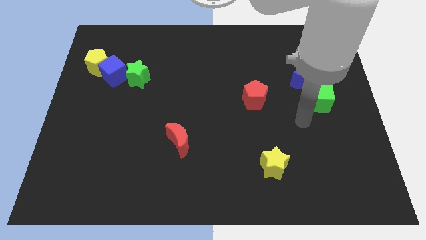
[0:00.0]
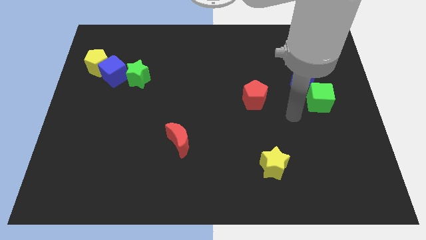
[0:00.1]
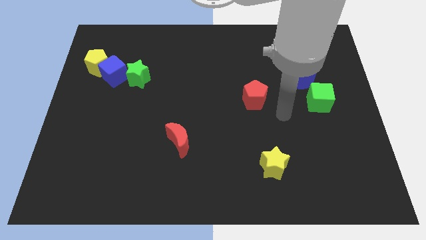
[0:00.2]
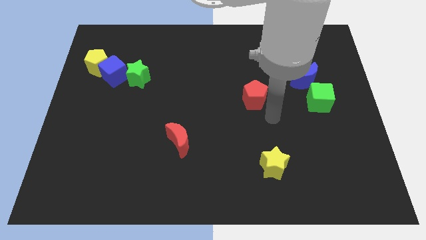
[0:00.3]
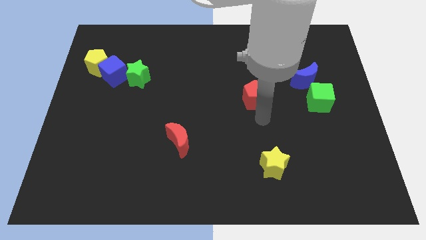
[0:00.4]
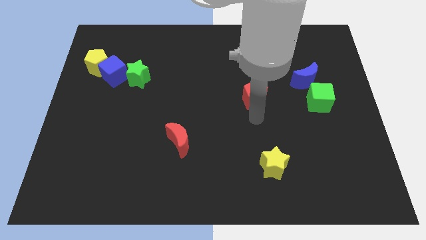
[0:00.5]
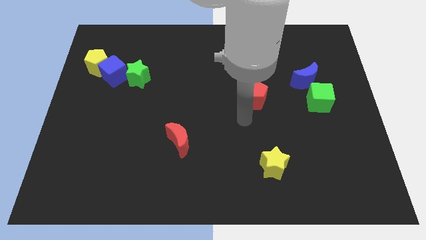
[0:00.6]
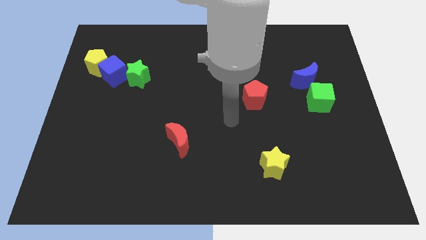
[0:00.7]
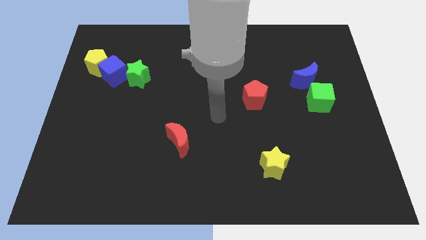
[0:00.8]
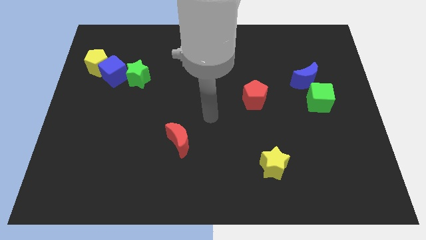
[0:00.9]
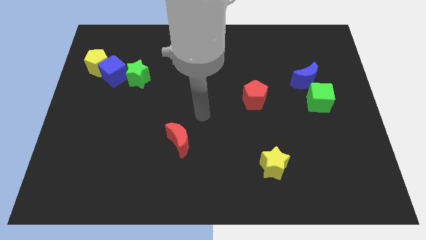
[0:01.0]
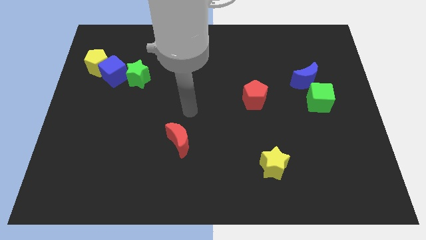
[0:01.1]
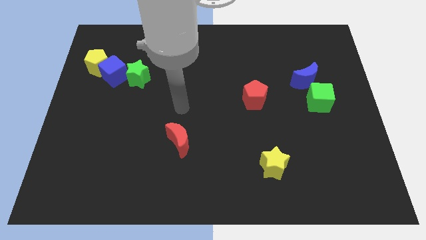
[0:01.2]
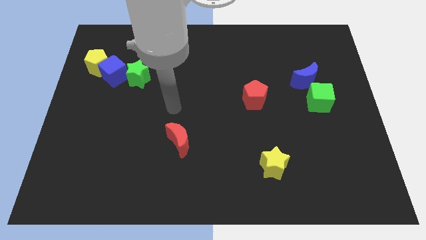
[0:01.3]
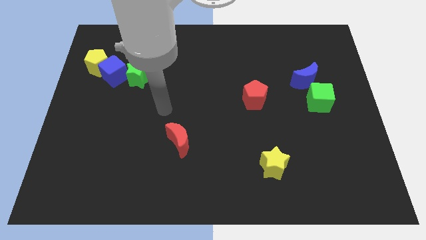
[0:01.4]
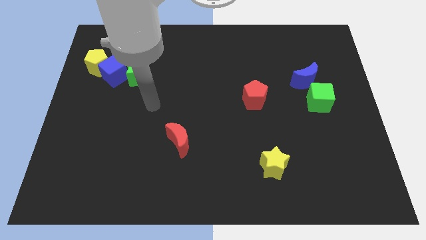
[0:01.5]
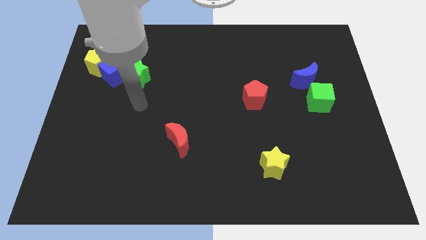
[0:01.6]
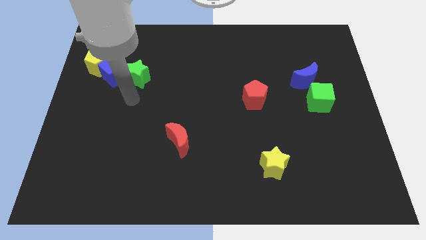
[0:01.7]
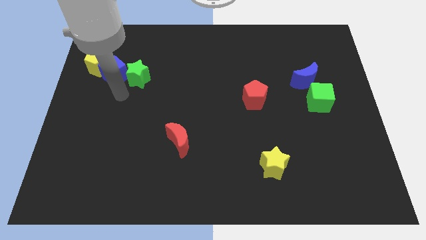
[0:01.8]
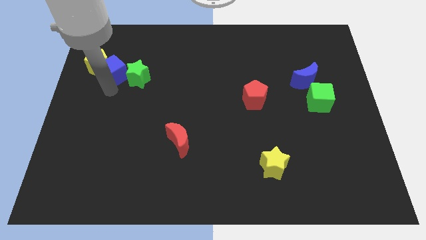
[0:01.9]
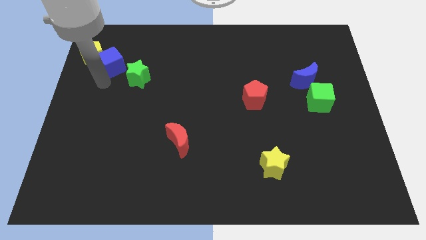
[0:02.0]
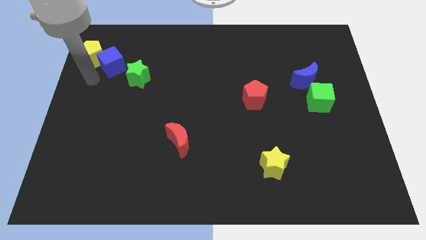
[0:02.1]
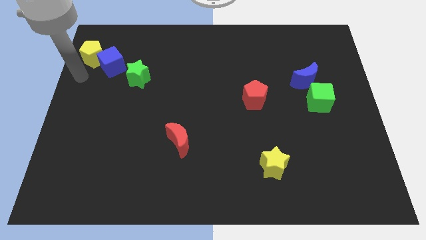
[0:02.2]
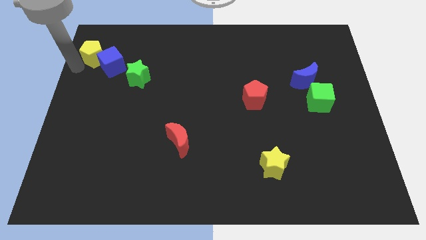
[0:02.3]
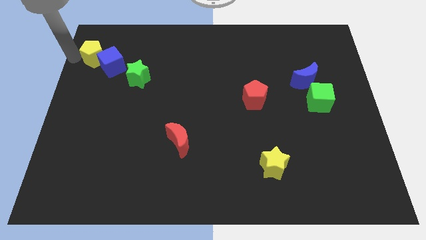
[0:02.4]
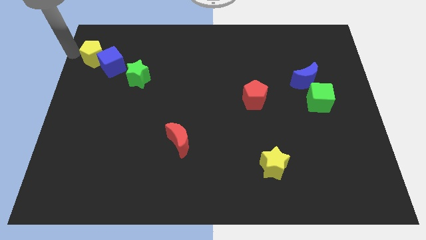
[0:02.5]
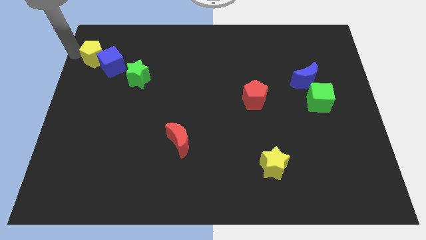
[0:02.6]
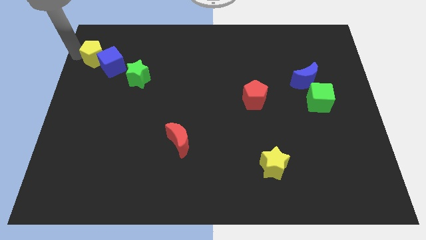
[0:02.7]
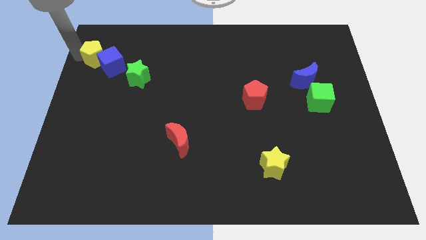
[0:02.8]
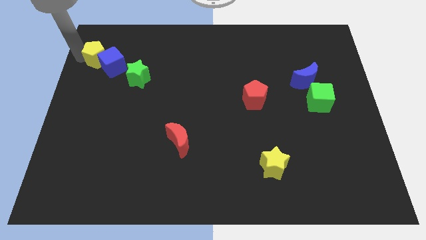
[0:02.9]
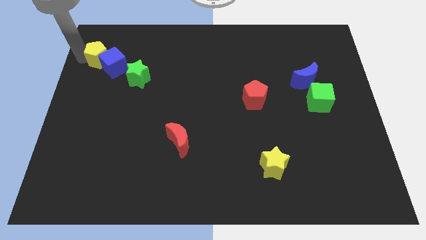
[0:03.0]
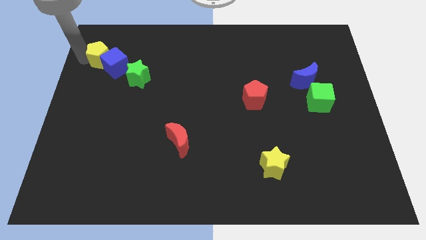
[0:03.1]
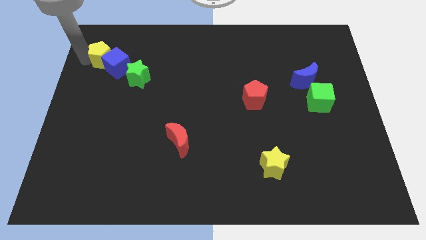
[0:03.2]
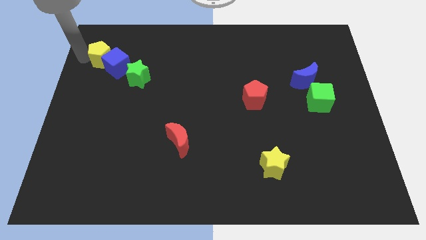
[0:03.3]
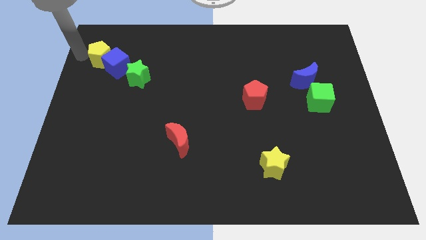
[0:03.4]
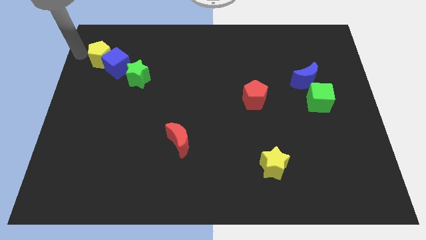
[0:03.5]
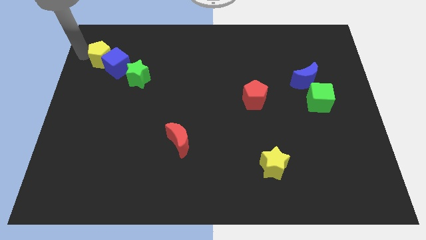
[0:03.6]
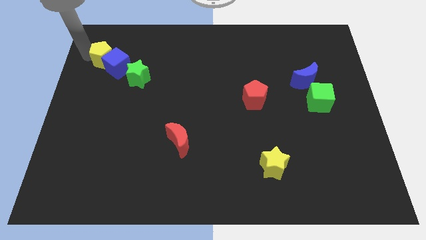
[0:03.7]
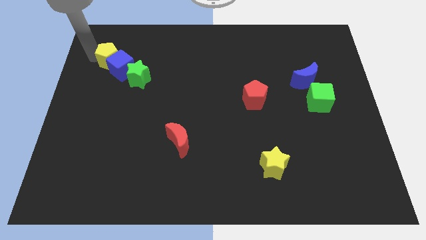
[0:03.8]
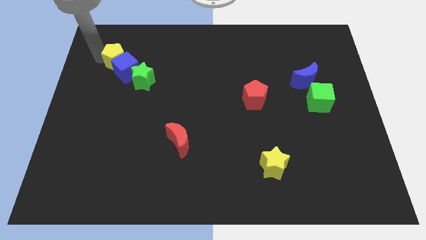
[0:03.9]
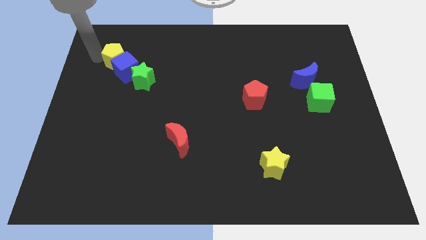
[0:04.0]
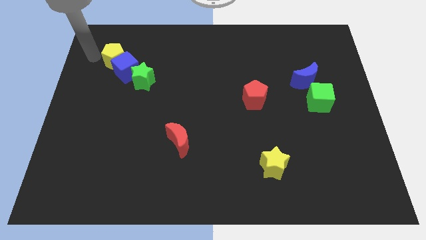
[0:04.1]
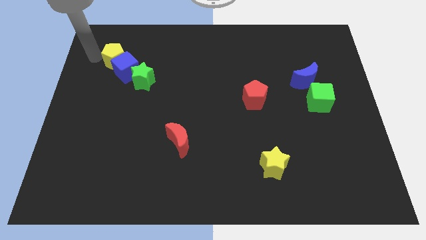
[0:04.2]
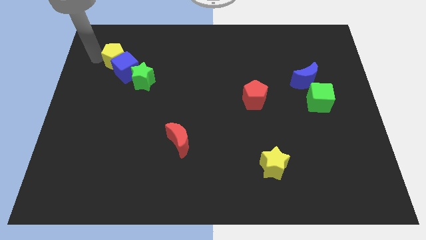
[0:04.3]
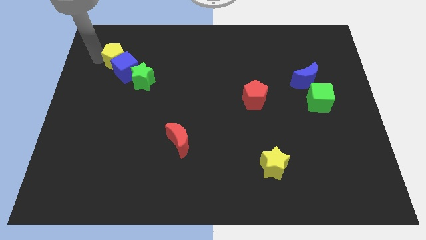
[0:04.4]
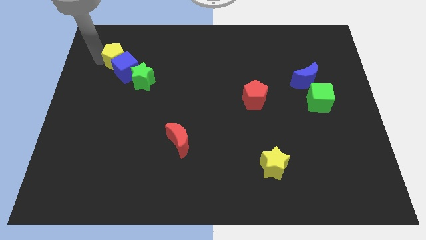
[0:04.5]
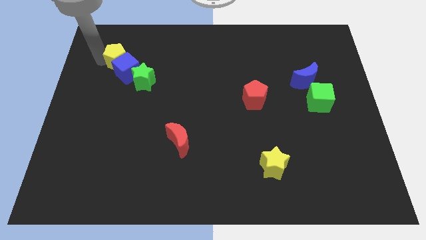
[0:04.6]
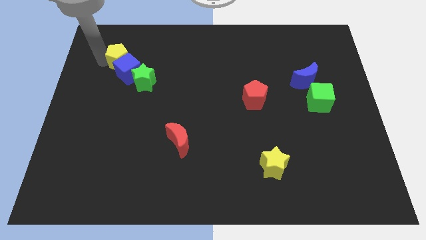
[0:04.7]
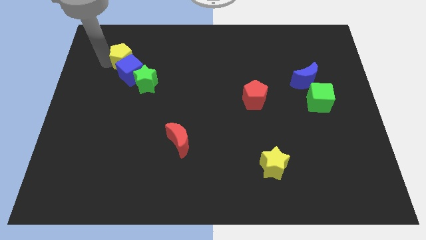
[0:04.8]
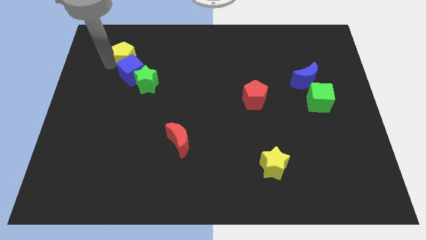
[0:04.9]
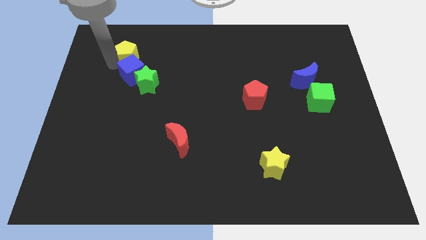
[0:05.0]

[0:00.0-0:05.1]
slide the yellow pentagon to the right a little bit

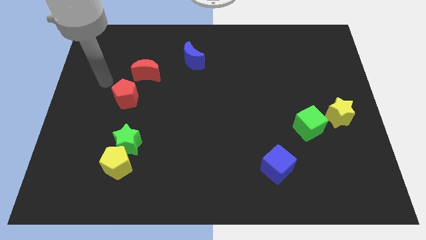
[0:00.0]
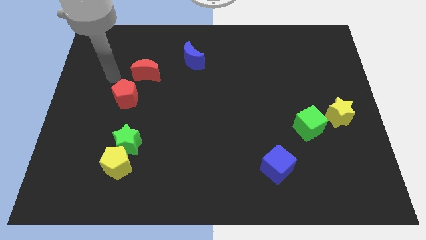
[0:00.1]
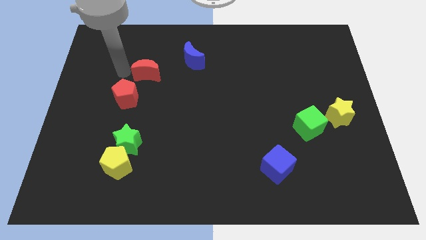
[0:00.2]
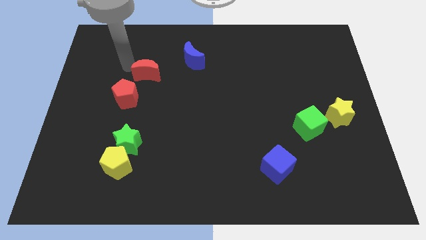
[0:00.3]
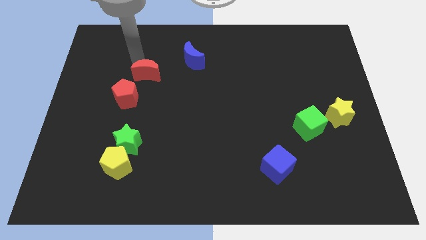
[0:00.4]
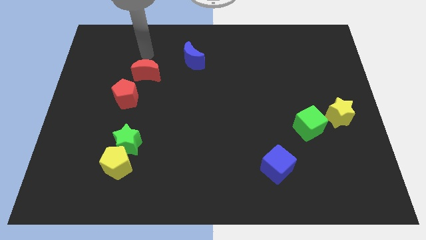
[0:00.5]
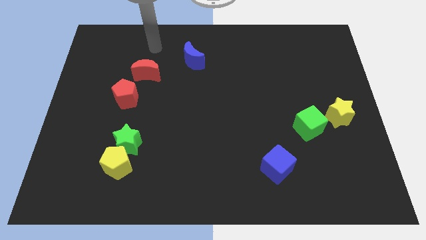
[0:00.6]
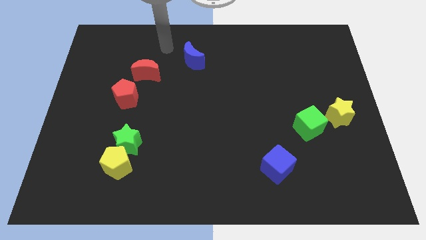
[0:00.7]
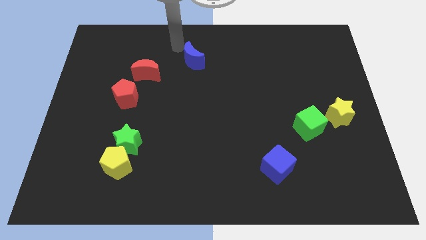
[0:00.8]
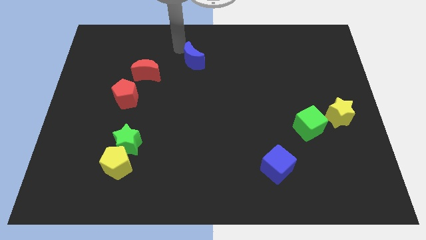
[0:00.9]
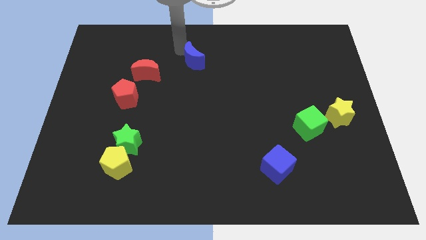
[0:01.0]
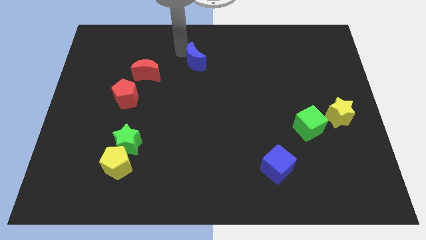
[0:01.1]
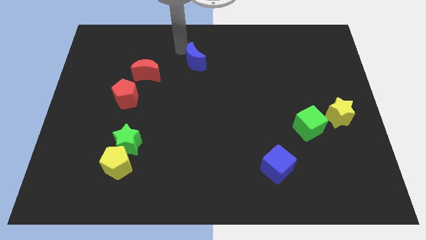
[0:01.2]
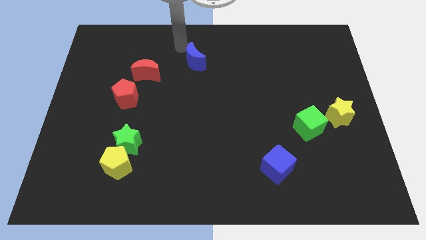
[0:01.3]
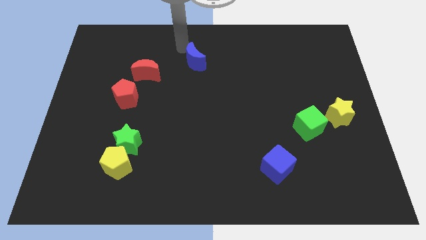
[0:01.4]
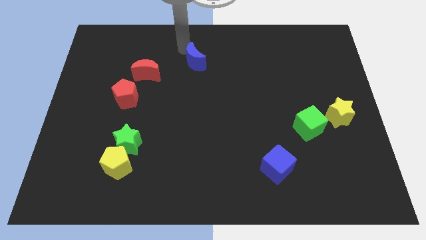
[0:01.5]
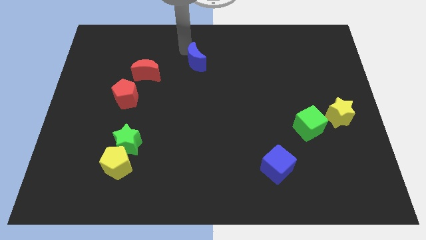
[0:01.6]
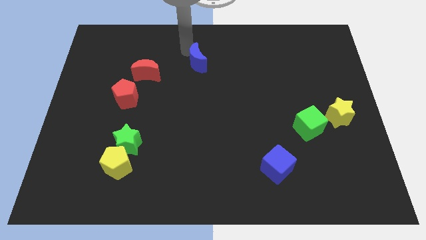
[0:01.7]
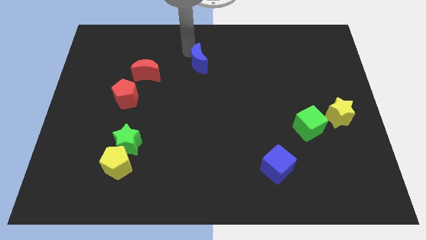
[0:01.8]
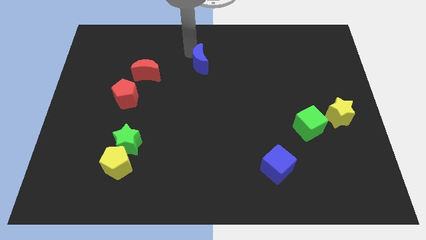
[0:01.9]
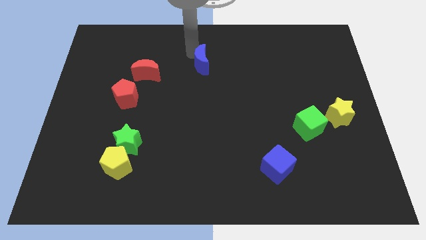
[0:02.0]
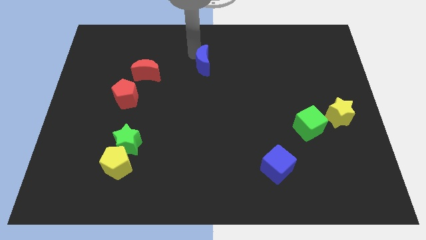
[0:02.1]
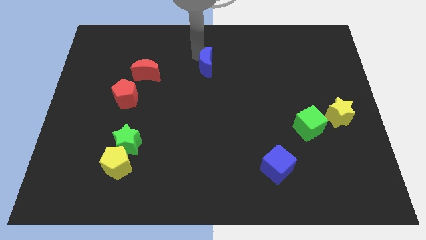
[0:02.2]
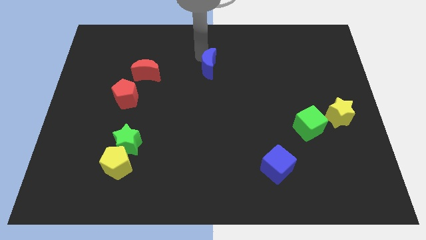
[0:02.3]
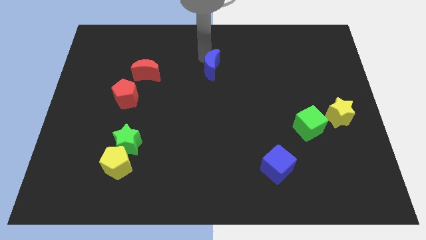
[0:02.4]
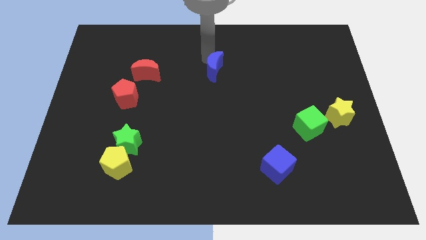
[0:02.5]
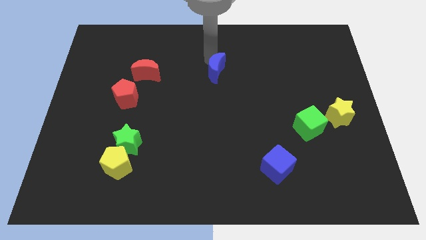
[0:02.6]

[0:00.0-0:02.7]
push the blue moon a little downwards and to the right diagonally
